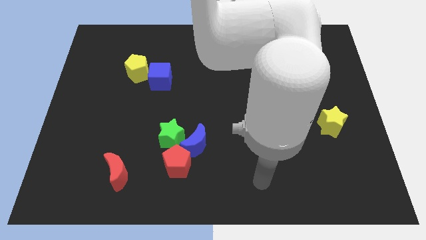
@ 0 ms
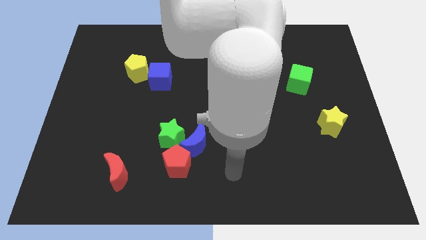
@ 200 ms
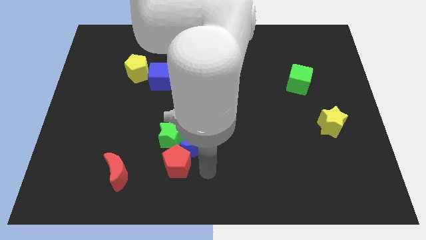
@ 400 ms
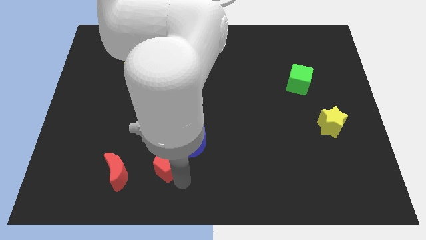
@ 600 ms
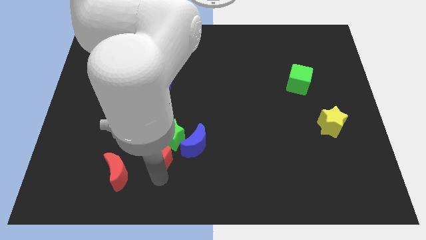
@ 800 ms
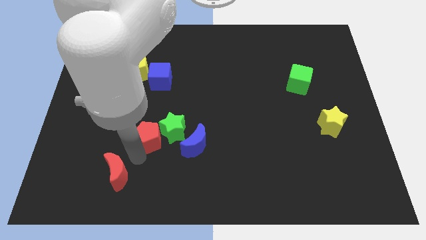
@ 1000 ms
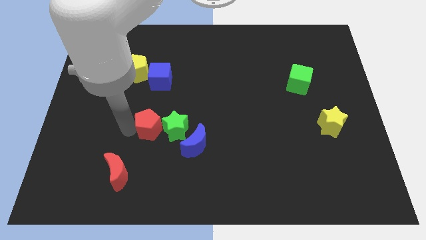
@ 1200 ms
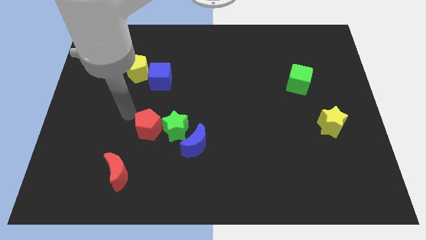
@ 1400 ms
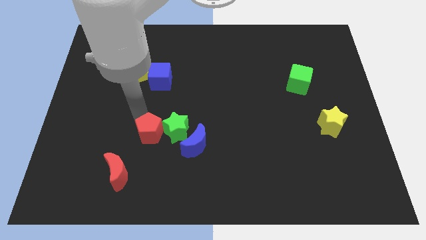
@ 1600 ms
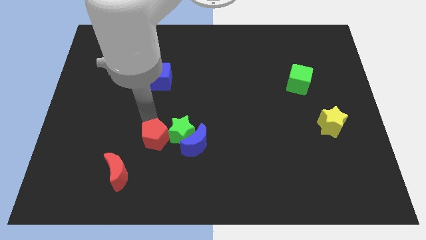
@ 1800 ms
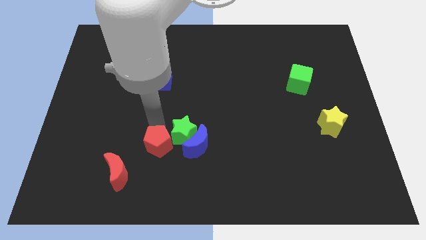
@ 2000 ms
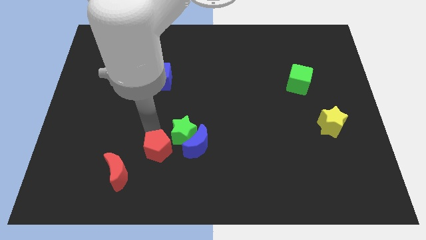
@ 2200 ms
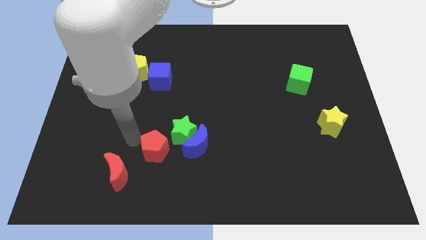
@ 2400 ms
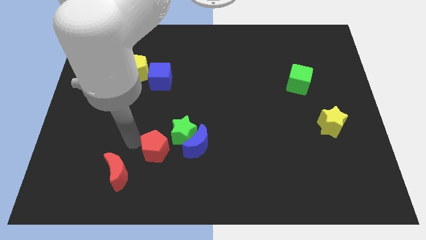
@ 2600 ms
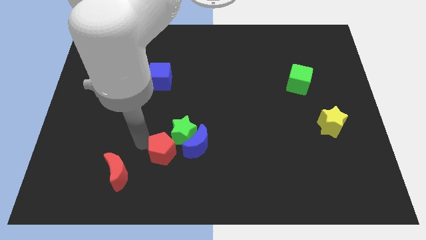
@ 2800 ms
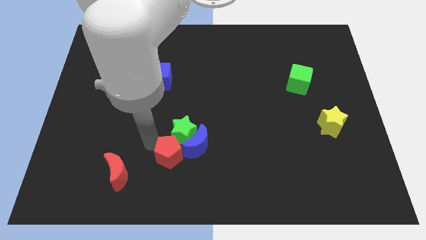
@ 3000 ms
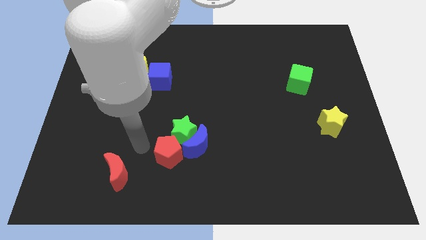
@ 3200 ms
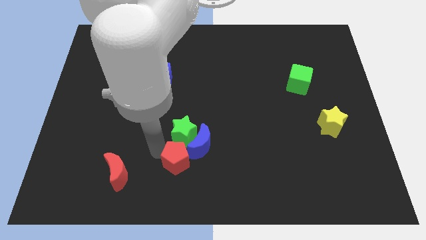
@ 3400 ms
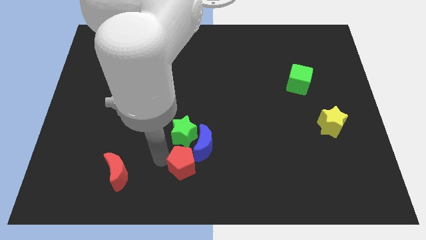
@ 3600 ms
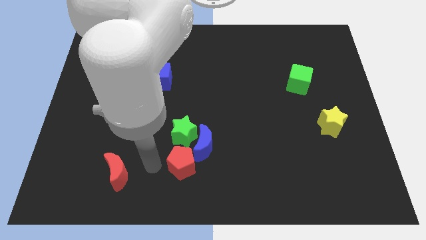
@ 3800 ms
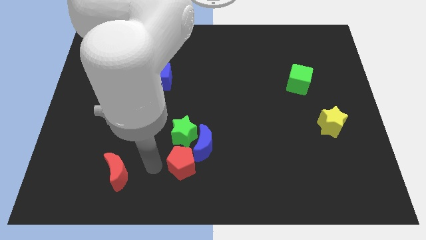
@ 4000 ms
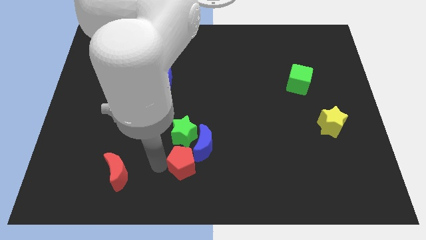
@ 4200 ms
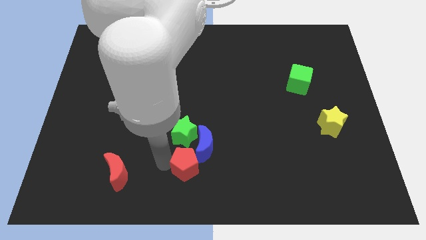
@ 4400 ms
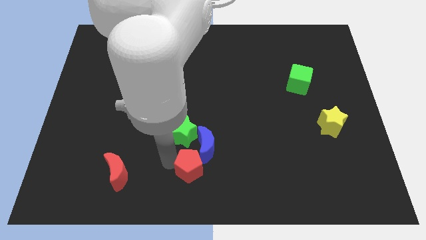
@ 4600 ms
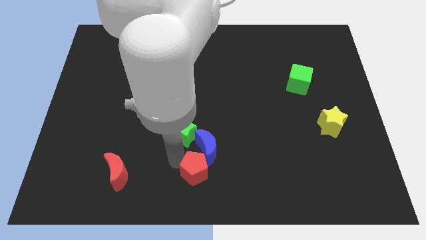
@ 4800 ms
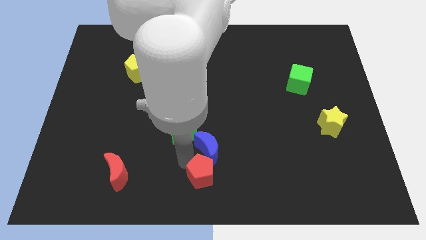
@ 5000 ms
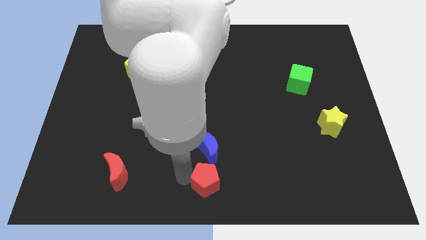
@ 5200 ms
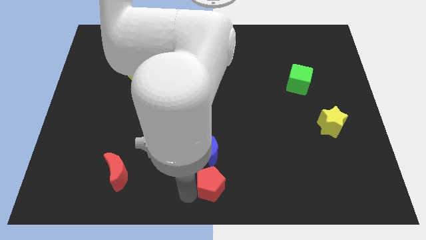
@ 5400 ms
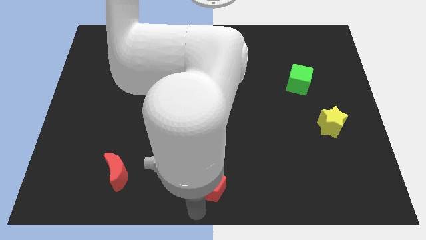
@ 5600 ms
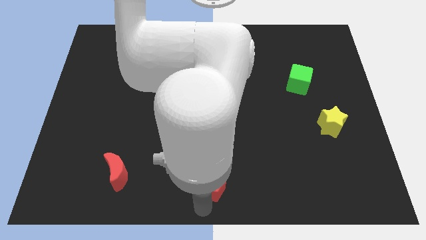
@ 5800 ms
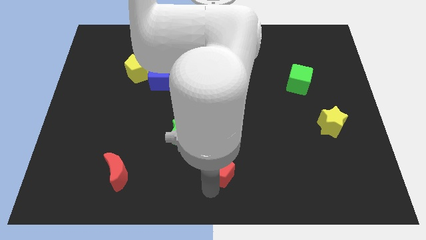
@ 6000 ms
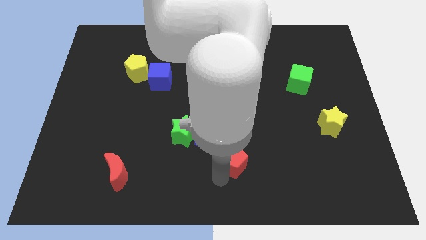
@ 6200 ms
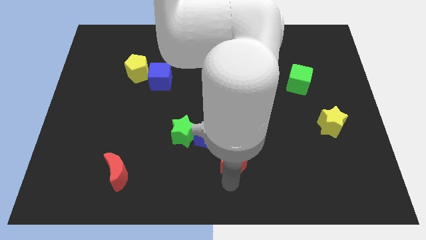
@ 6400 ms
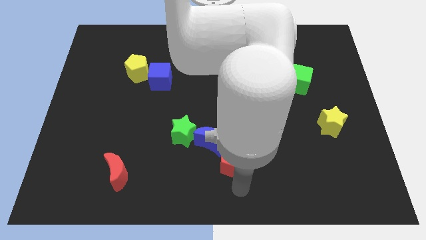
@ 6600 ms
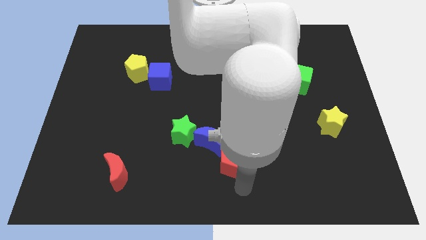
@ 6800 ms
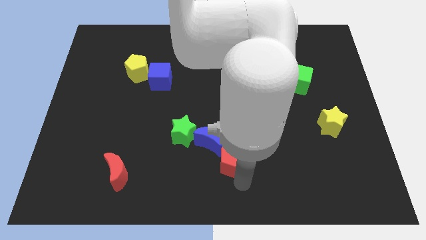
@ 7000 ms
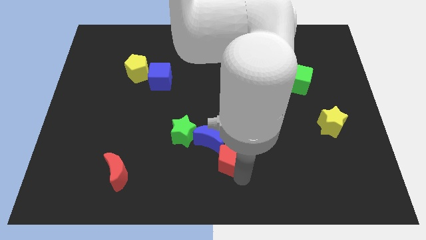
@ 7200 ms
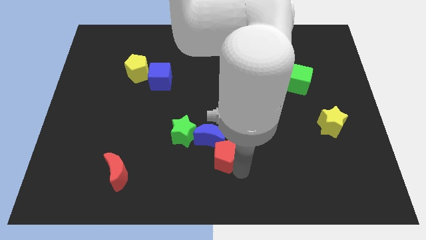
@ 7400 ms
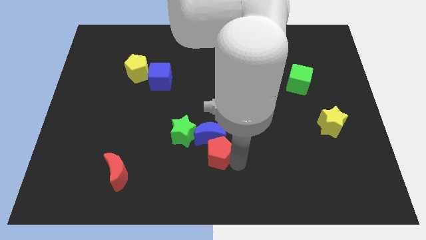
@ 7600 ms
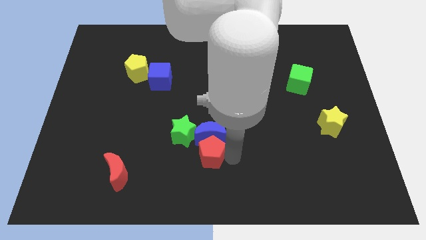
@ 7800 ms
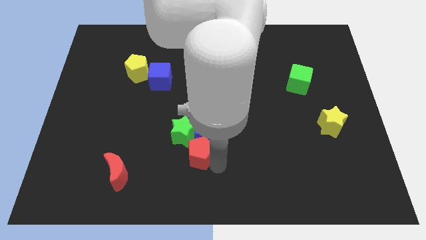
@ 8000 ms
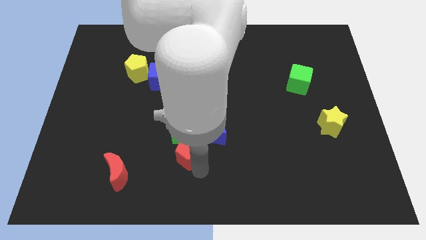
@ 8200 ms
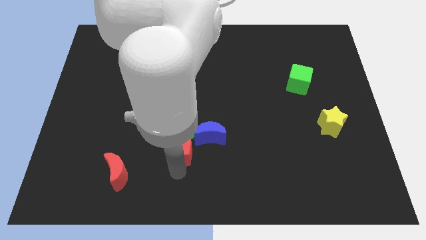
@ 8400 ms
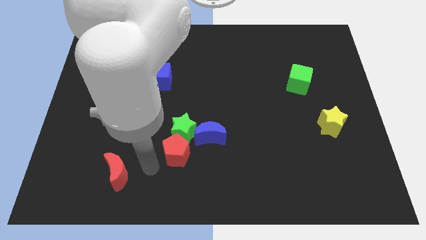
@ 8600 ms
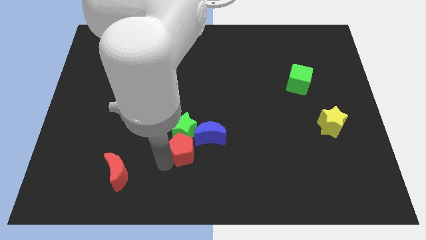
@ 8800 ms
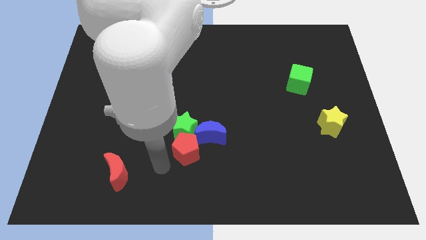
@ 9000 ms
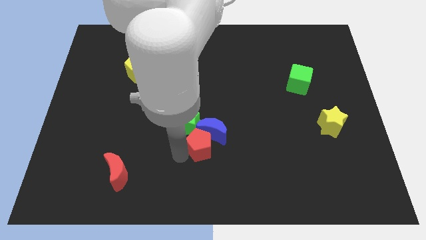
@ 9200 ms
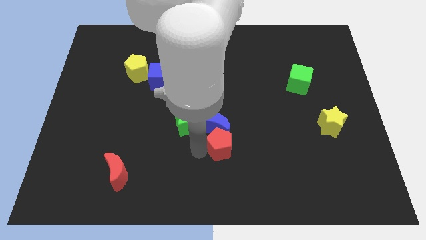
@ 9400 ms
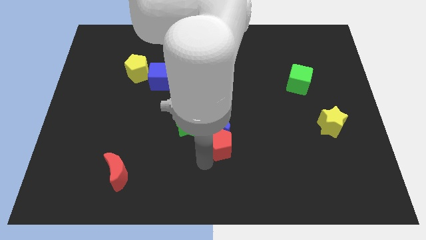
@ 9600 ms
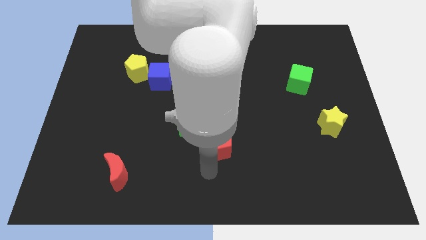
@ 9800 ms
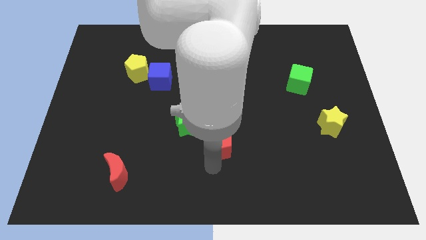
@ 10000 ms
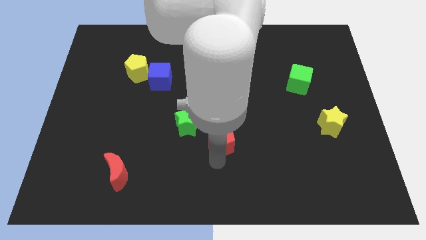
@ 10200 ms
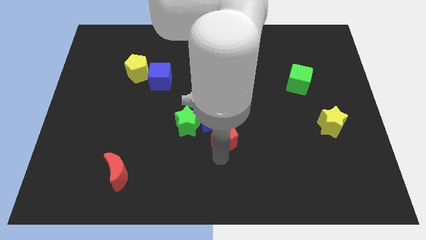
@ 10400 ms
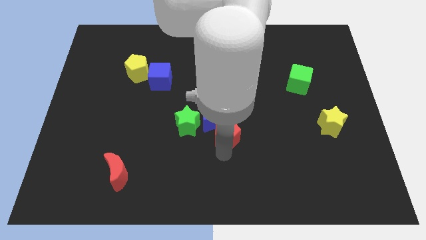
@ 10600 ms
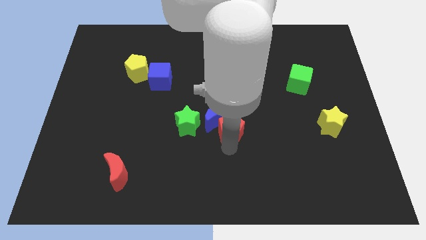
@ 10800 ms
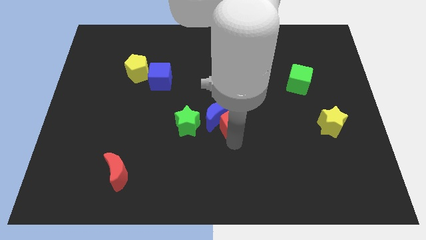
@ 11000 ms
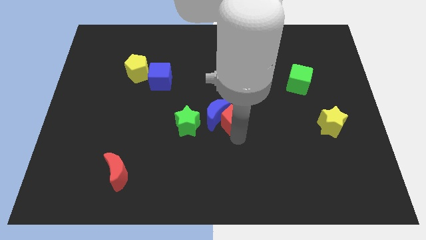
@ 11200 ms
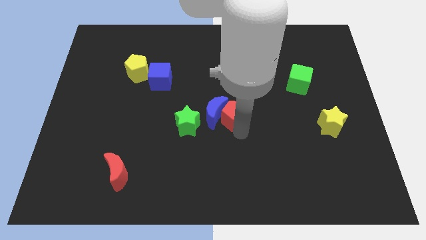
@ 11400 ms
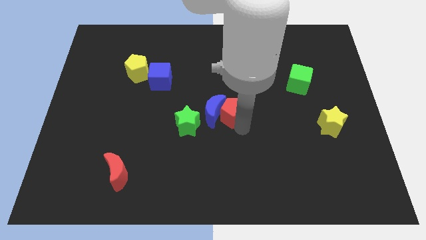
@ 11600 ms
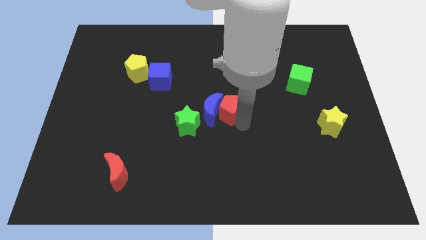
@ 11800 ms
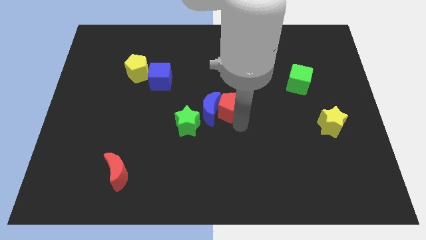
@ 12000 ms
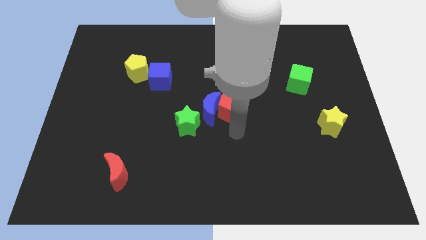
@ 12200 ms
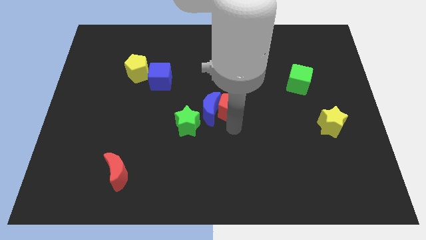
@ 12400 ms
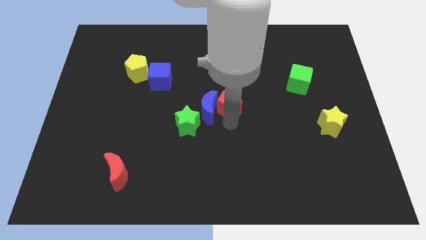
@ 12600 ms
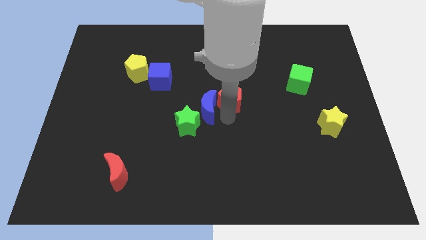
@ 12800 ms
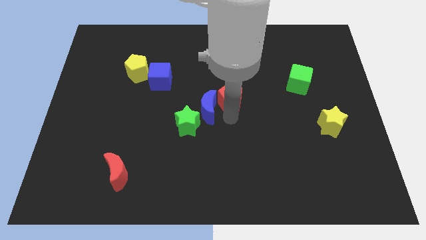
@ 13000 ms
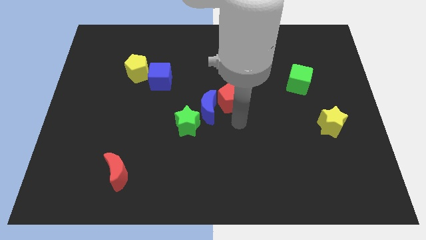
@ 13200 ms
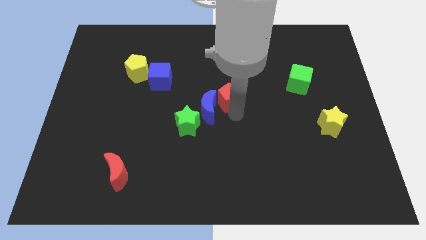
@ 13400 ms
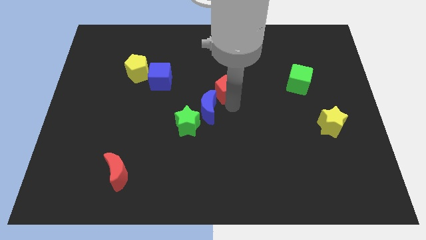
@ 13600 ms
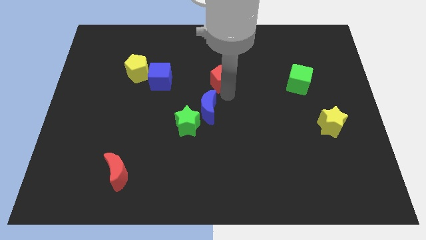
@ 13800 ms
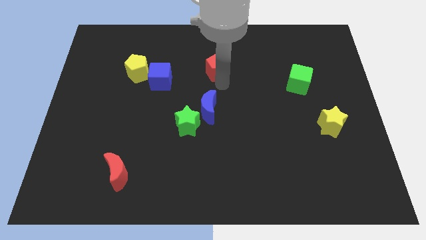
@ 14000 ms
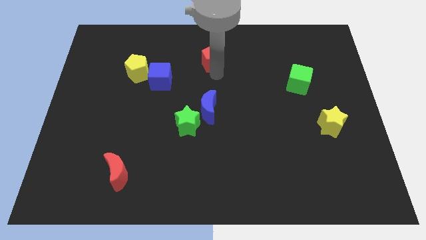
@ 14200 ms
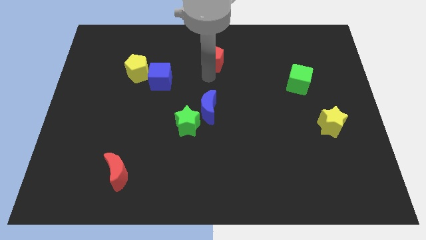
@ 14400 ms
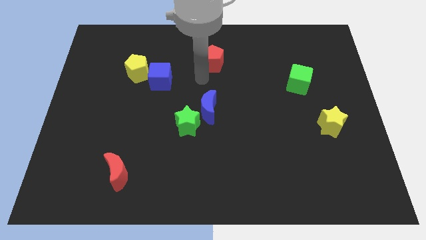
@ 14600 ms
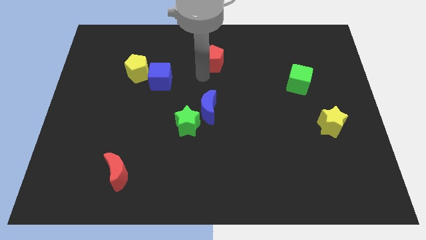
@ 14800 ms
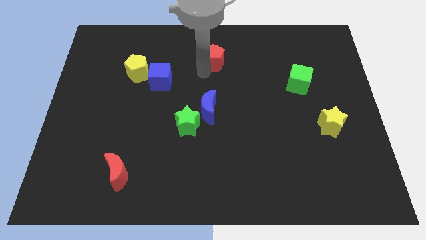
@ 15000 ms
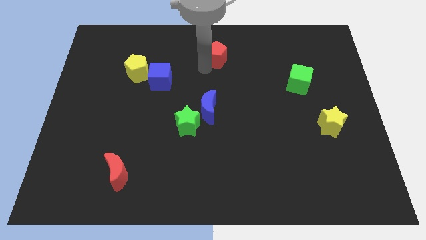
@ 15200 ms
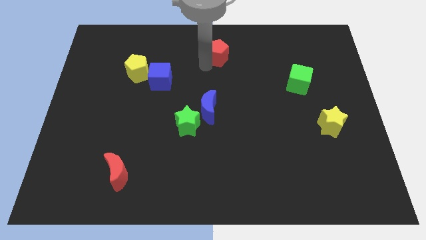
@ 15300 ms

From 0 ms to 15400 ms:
slide the red pentagon to the top side
